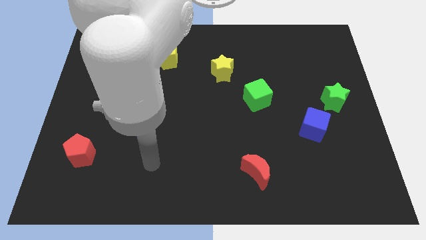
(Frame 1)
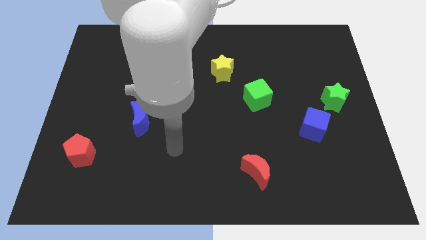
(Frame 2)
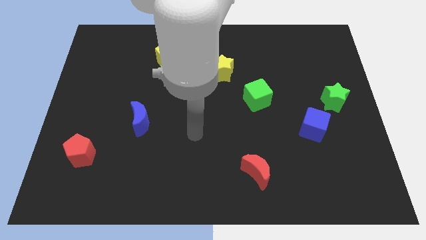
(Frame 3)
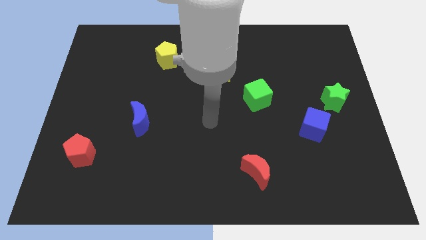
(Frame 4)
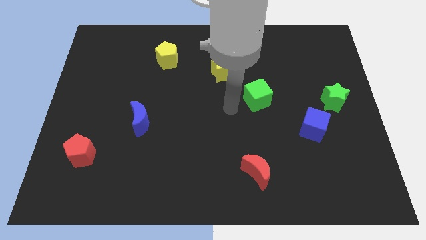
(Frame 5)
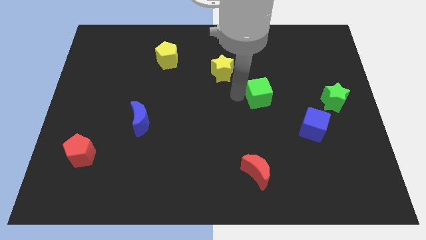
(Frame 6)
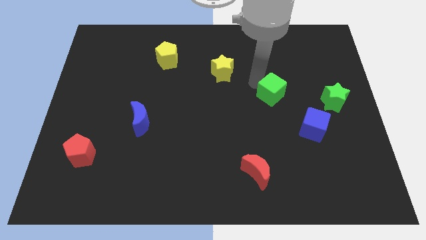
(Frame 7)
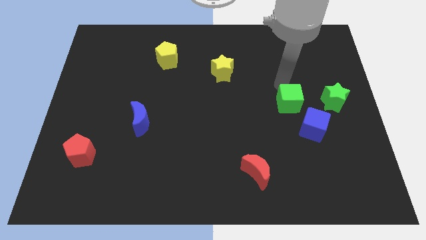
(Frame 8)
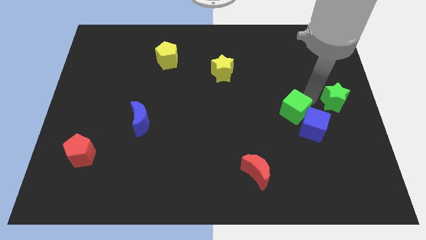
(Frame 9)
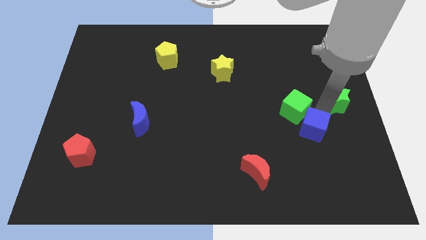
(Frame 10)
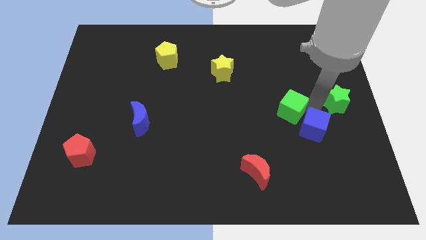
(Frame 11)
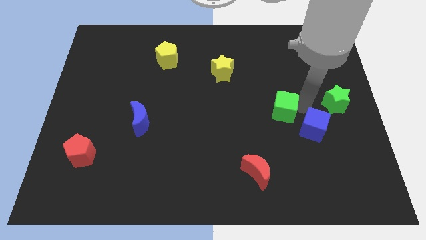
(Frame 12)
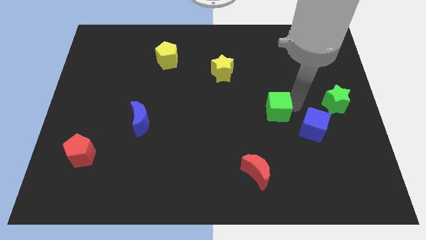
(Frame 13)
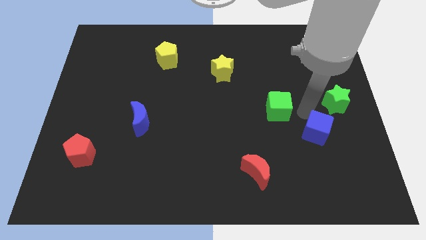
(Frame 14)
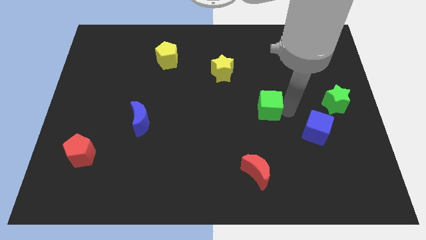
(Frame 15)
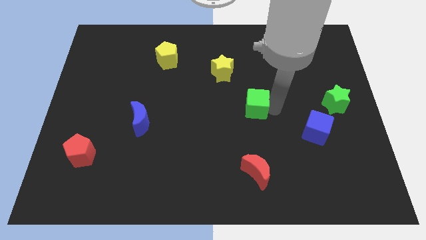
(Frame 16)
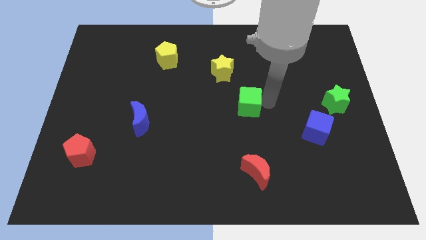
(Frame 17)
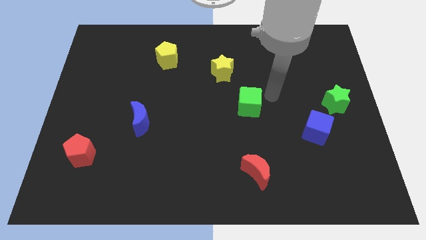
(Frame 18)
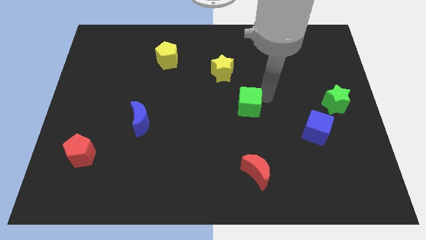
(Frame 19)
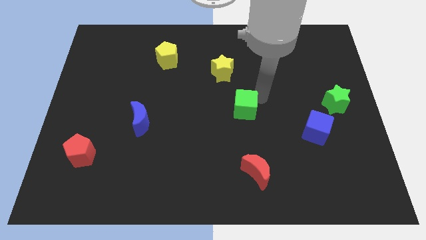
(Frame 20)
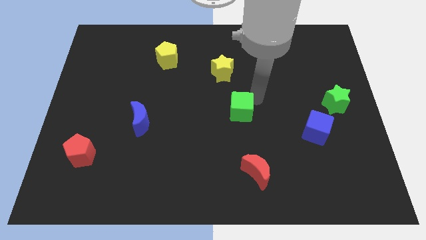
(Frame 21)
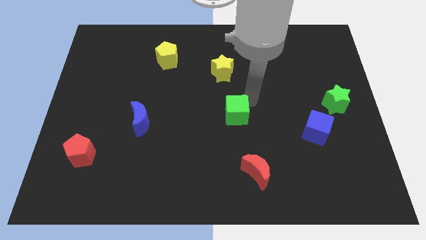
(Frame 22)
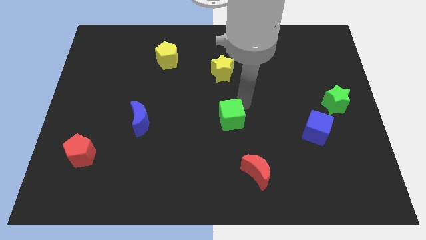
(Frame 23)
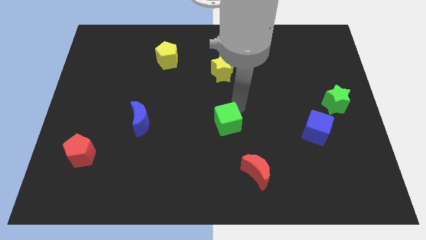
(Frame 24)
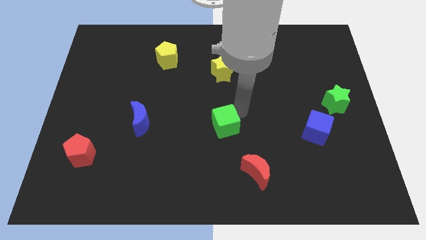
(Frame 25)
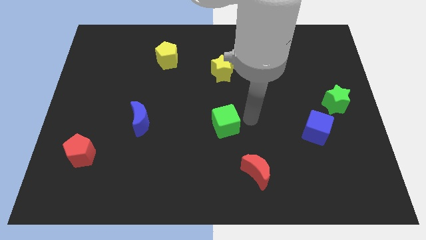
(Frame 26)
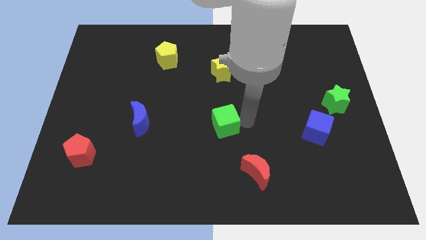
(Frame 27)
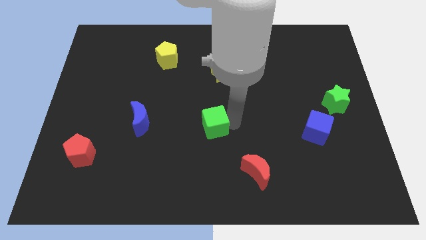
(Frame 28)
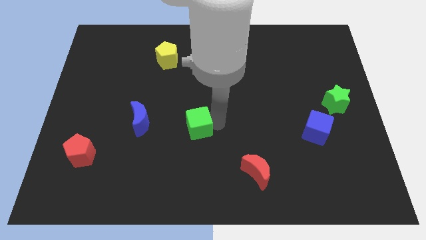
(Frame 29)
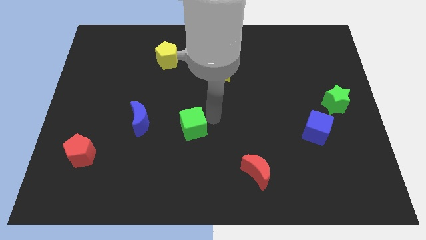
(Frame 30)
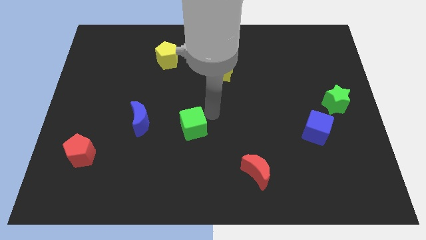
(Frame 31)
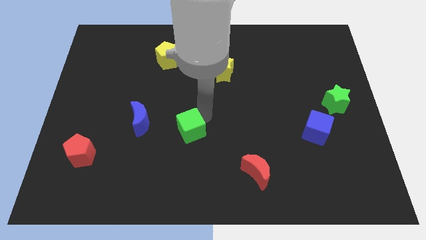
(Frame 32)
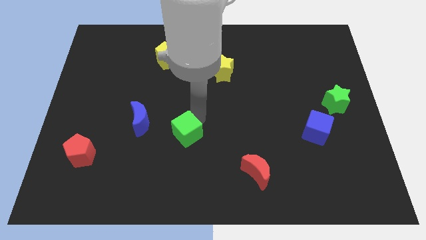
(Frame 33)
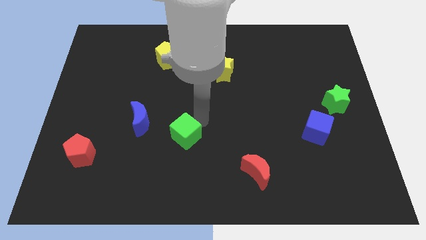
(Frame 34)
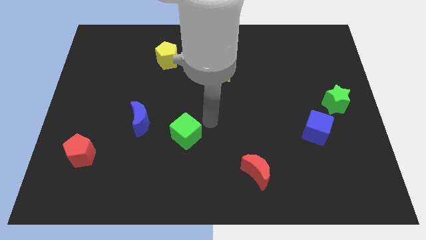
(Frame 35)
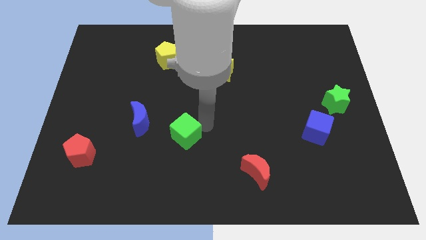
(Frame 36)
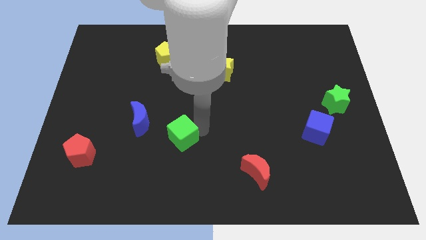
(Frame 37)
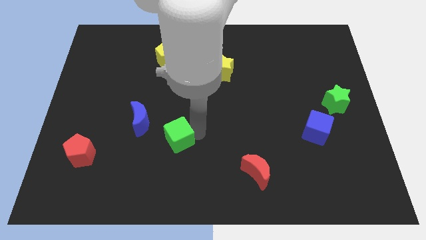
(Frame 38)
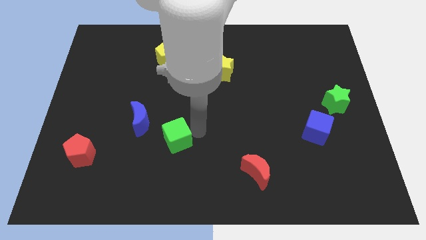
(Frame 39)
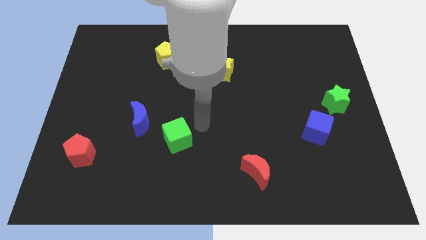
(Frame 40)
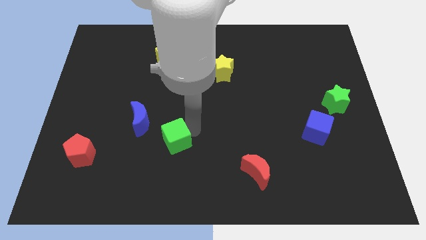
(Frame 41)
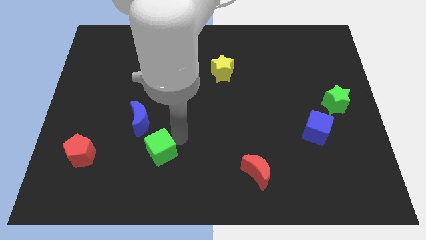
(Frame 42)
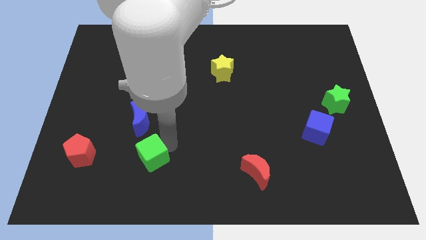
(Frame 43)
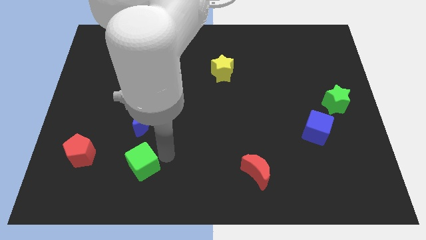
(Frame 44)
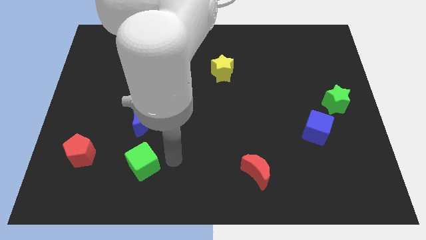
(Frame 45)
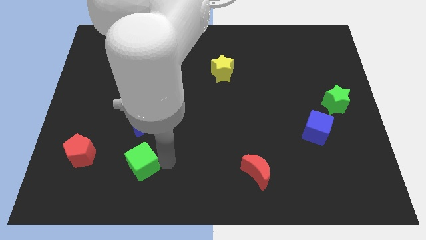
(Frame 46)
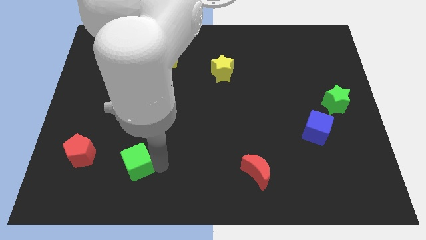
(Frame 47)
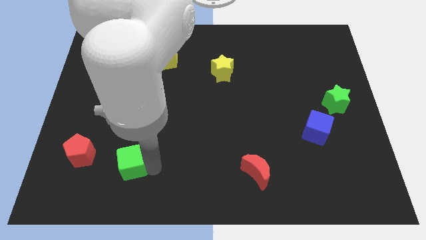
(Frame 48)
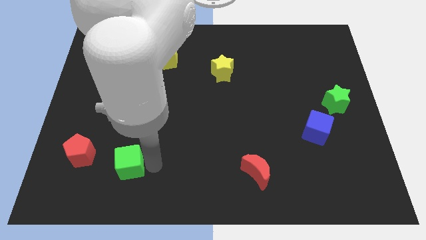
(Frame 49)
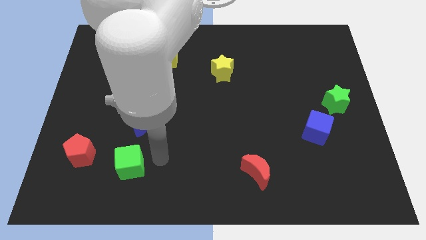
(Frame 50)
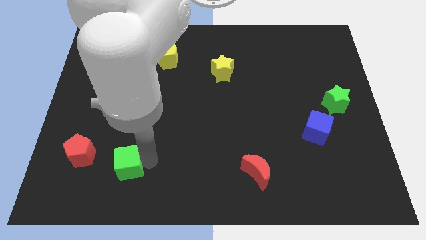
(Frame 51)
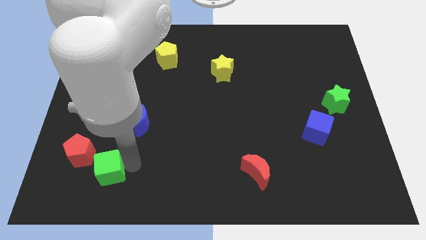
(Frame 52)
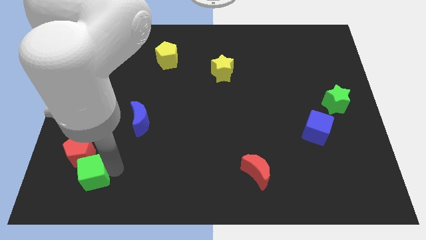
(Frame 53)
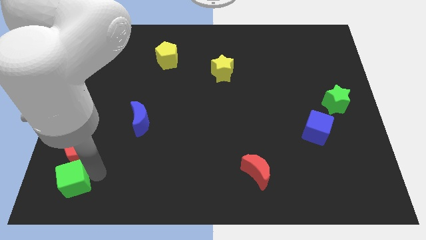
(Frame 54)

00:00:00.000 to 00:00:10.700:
slide the green cube to the bottom left corner
